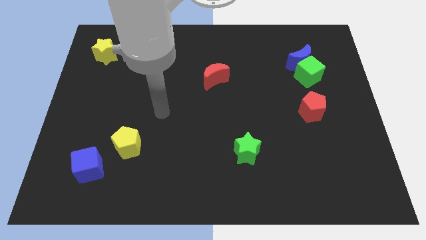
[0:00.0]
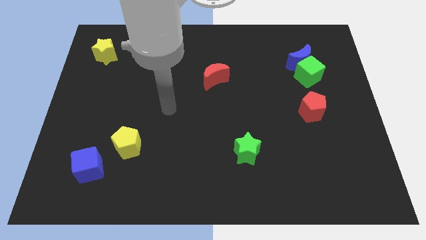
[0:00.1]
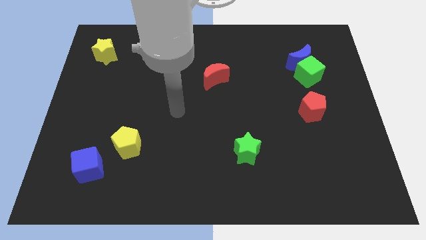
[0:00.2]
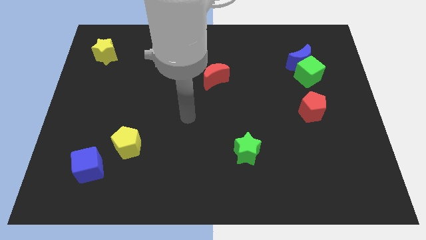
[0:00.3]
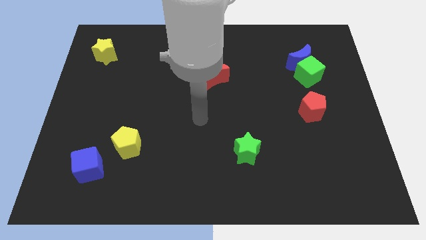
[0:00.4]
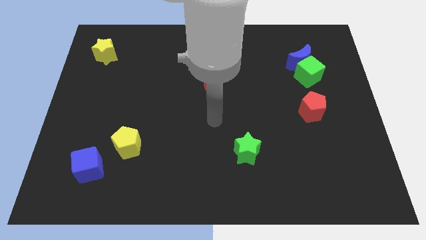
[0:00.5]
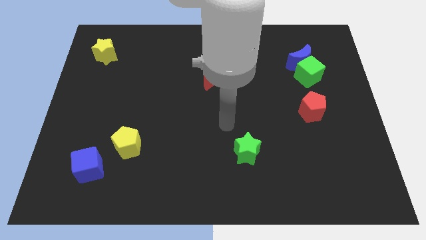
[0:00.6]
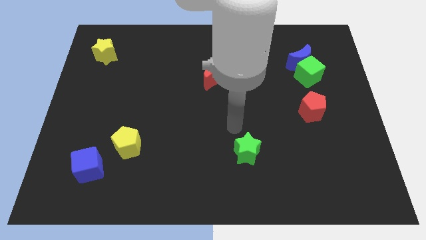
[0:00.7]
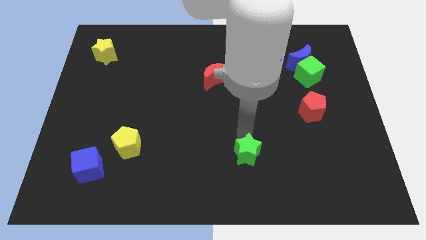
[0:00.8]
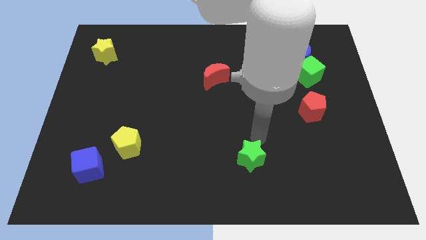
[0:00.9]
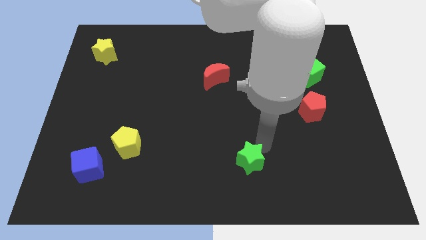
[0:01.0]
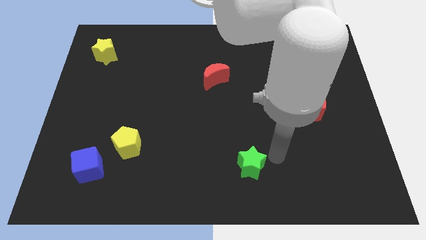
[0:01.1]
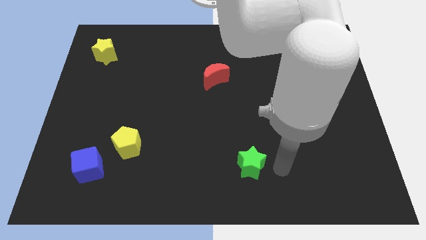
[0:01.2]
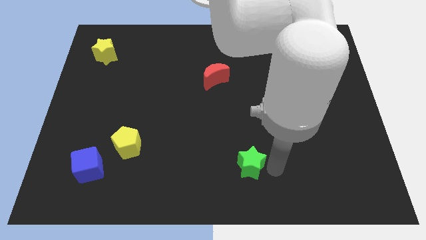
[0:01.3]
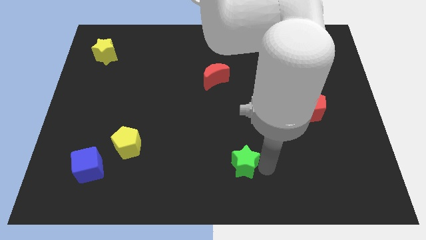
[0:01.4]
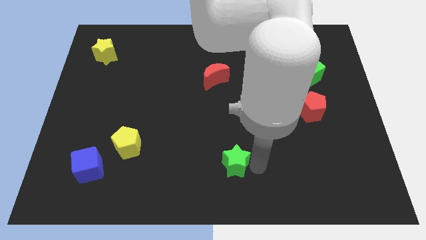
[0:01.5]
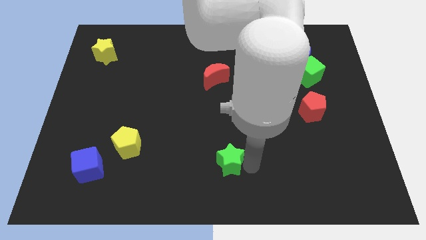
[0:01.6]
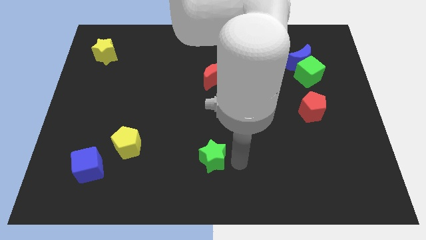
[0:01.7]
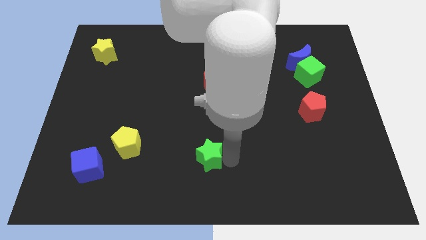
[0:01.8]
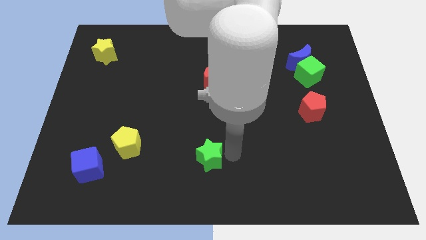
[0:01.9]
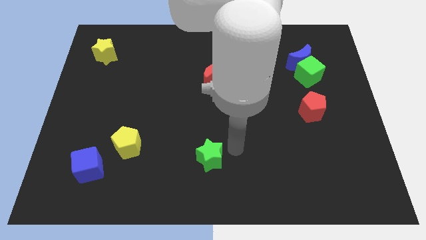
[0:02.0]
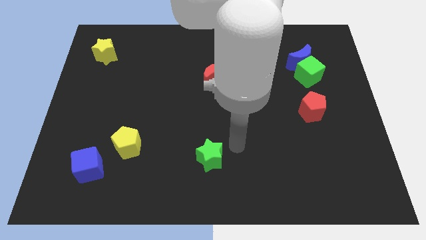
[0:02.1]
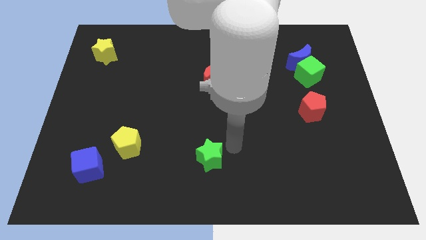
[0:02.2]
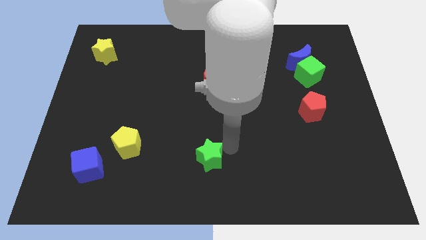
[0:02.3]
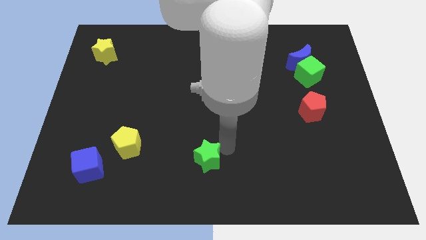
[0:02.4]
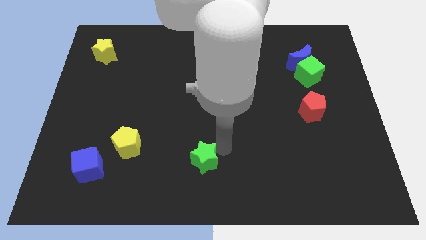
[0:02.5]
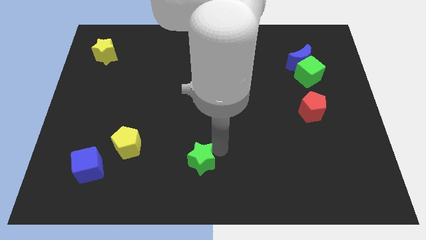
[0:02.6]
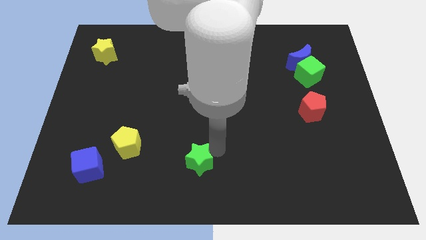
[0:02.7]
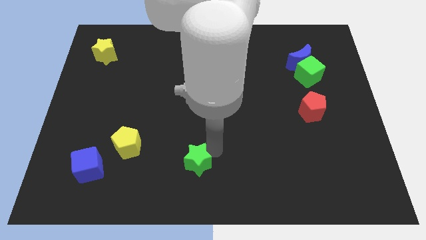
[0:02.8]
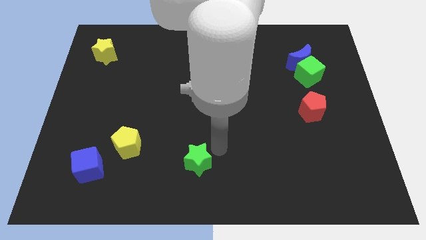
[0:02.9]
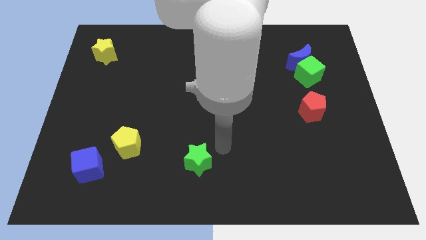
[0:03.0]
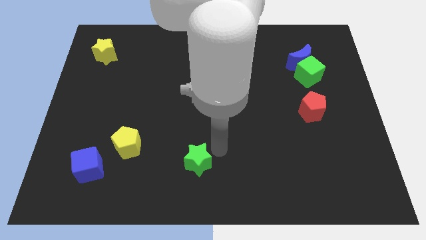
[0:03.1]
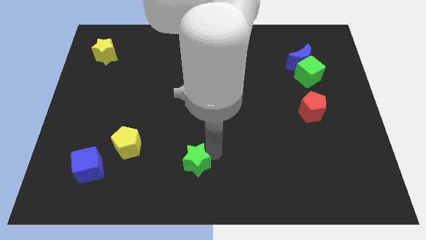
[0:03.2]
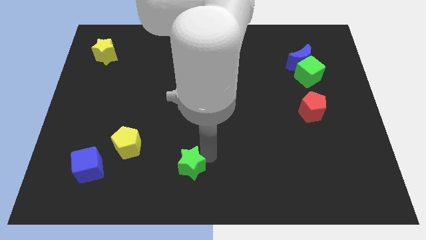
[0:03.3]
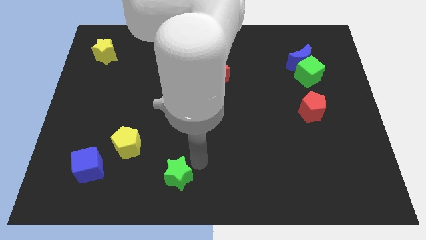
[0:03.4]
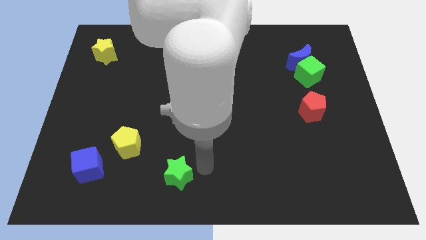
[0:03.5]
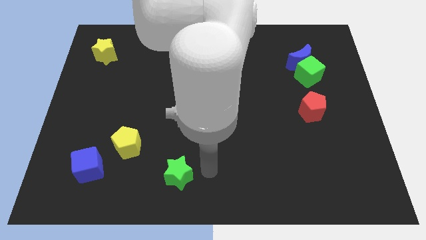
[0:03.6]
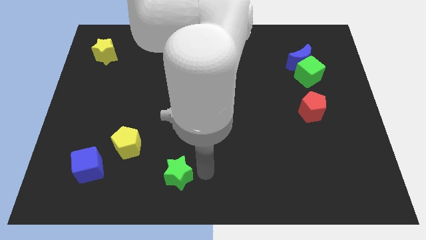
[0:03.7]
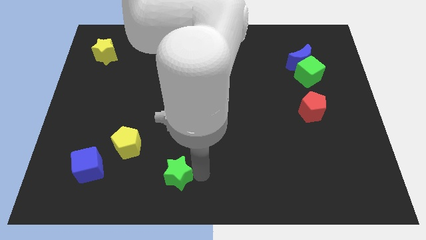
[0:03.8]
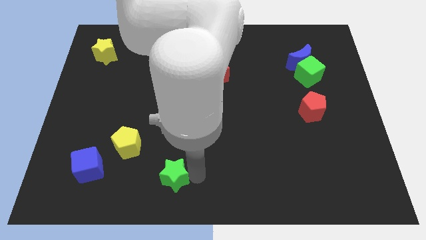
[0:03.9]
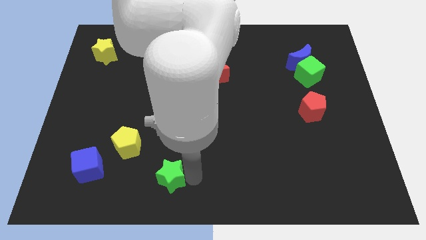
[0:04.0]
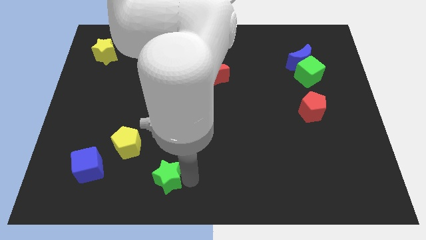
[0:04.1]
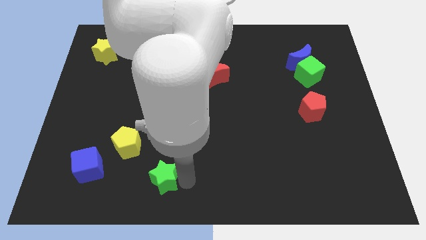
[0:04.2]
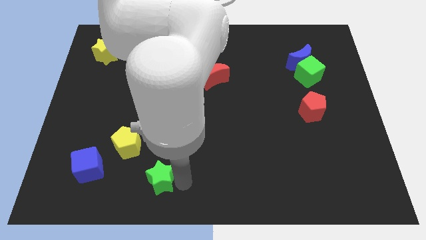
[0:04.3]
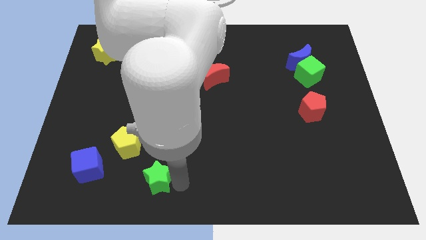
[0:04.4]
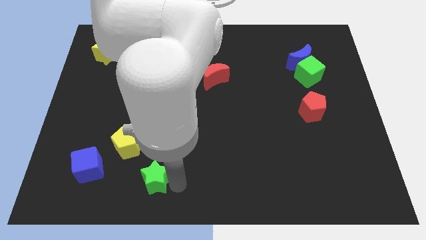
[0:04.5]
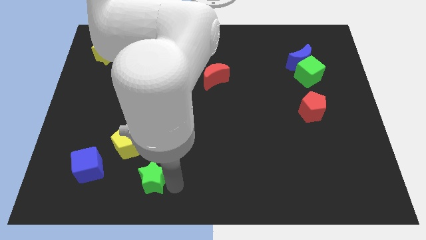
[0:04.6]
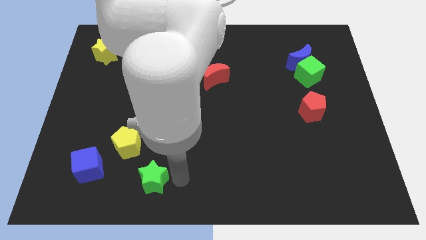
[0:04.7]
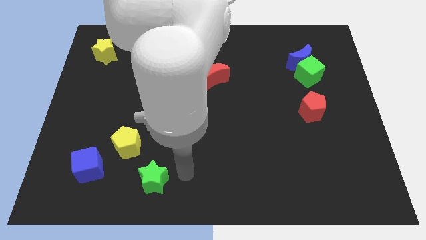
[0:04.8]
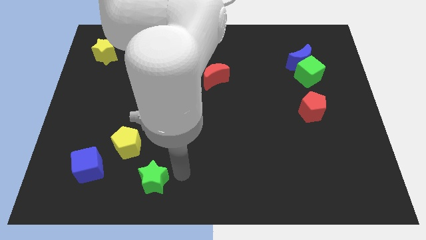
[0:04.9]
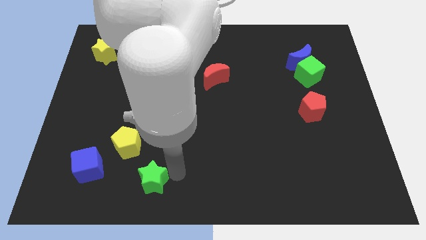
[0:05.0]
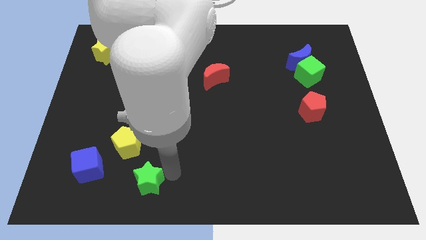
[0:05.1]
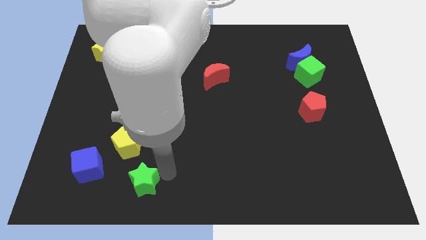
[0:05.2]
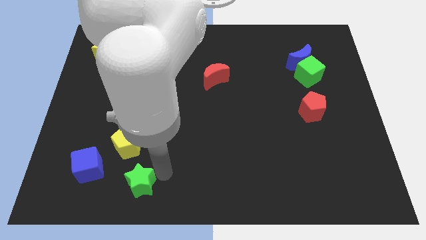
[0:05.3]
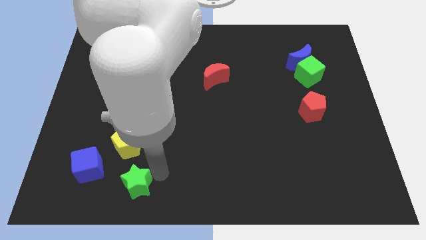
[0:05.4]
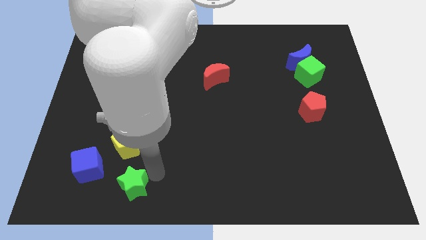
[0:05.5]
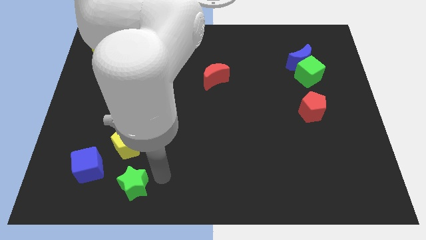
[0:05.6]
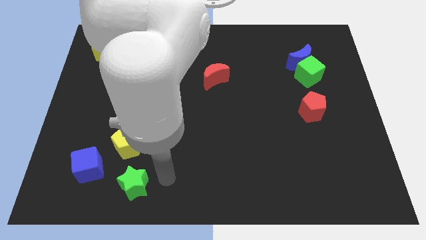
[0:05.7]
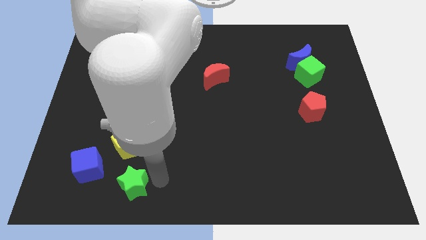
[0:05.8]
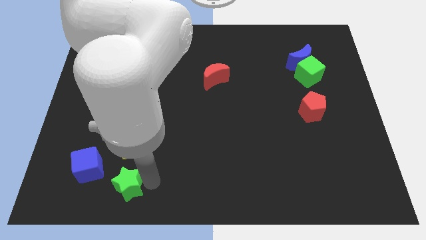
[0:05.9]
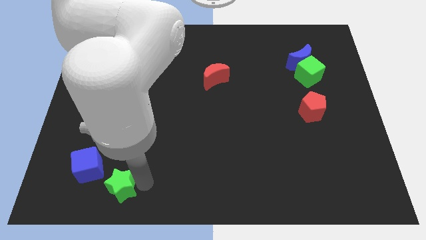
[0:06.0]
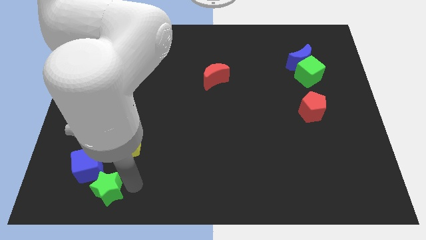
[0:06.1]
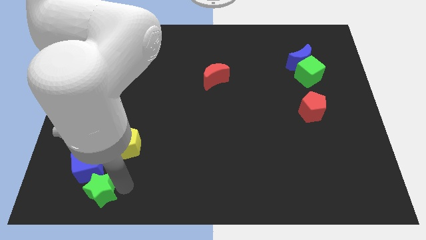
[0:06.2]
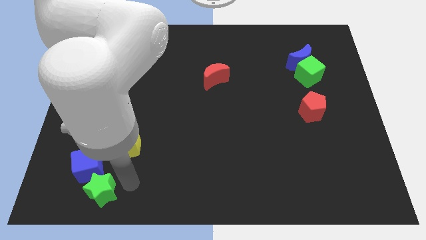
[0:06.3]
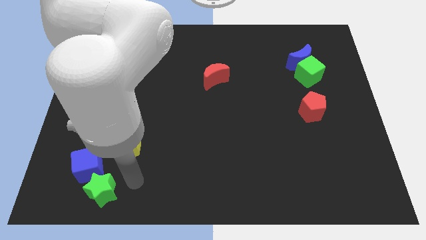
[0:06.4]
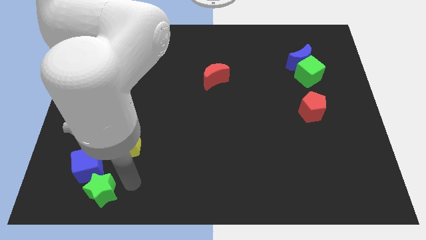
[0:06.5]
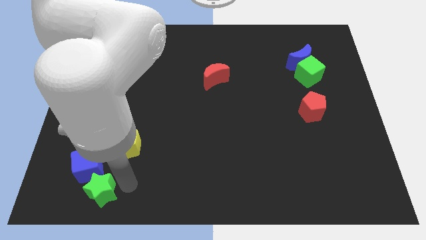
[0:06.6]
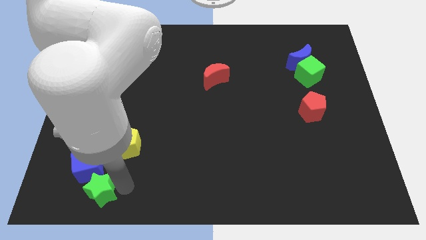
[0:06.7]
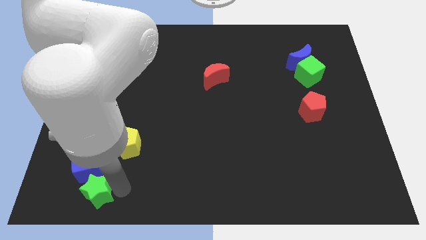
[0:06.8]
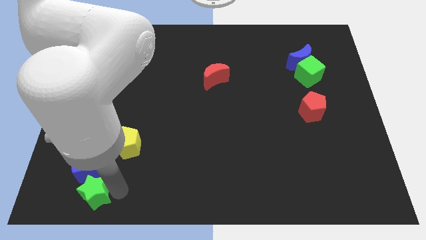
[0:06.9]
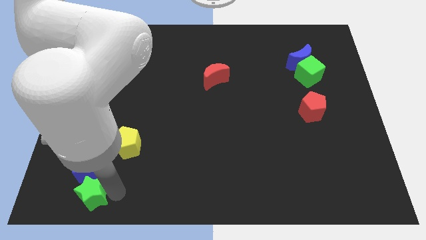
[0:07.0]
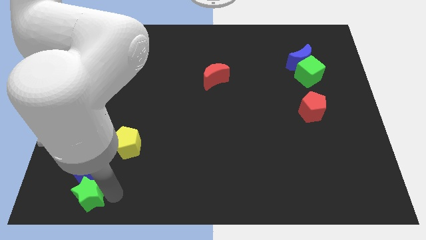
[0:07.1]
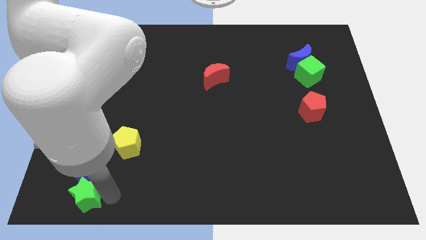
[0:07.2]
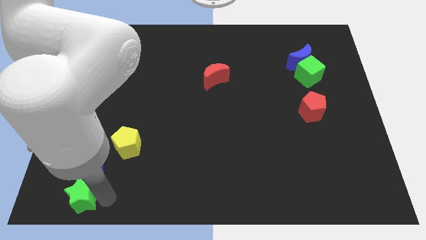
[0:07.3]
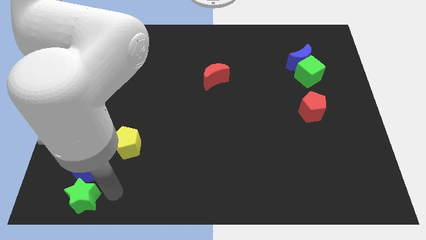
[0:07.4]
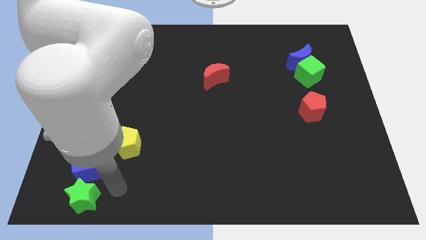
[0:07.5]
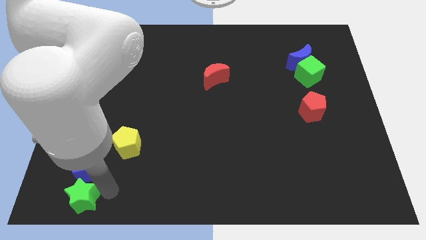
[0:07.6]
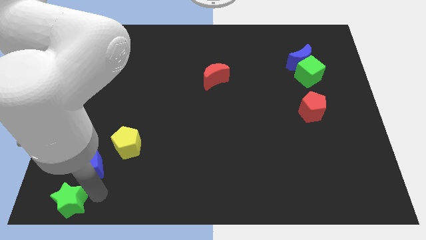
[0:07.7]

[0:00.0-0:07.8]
push the green star to the lower left corner

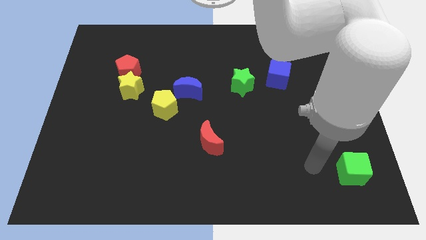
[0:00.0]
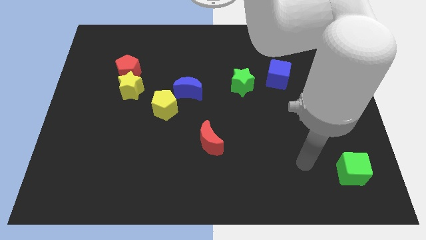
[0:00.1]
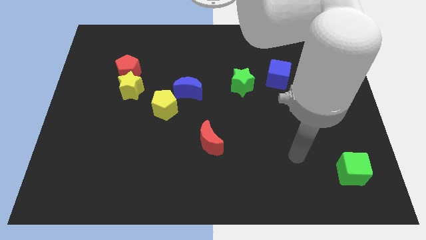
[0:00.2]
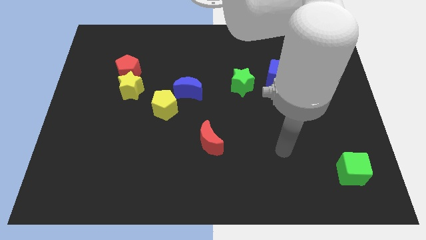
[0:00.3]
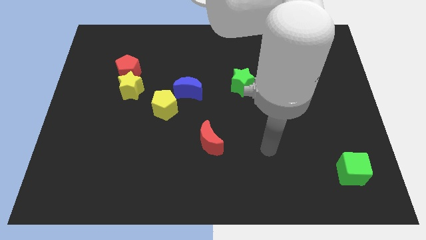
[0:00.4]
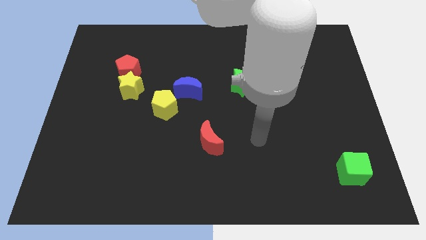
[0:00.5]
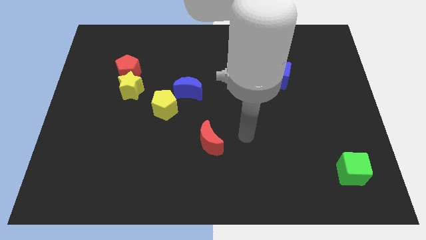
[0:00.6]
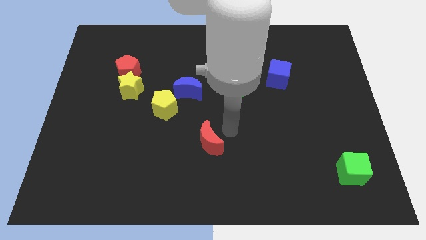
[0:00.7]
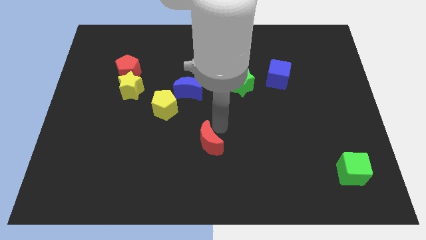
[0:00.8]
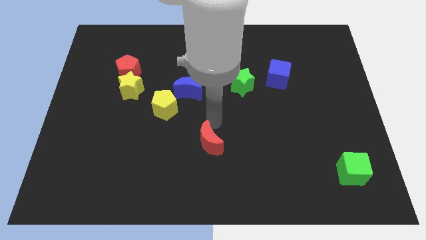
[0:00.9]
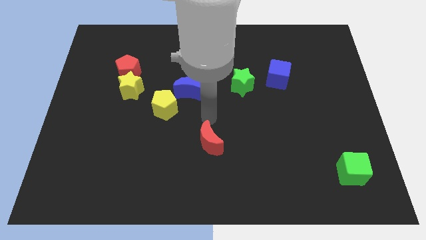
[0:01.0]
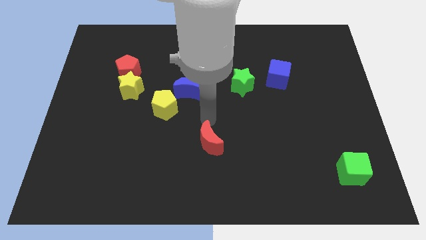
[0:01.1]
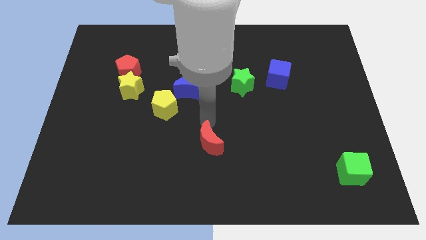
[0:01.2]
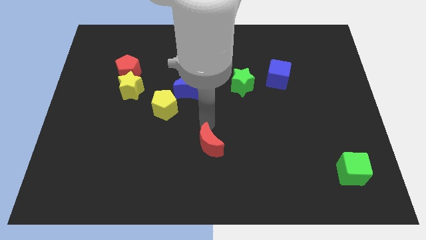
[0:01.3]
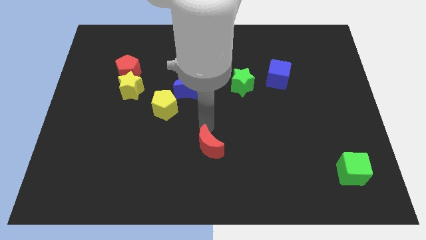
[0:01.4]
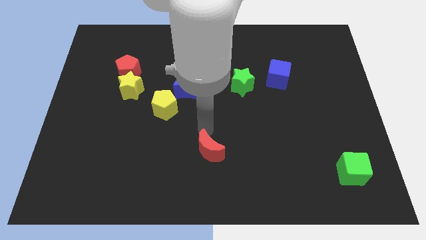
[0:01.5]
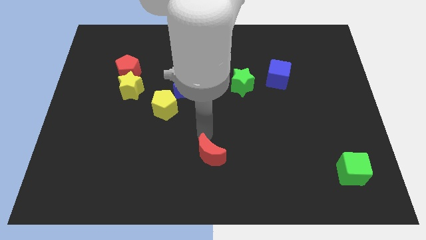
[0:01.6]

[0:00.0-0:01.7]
slide the red moon to the bottom
